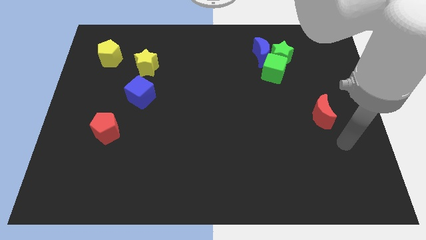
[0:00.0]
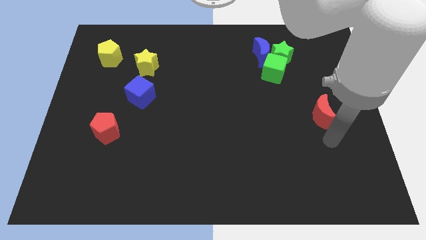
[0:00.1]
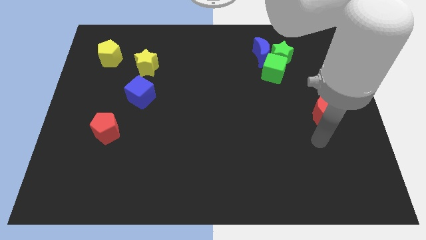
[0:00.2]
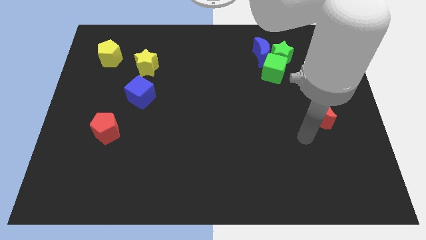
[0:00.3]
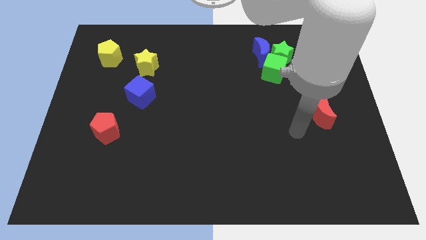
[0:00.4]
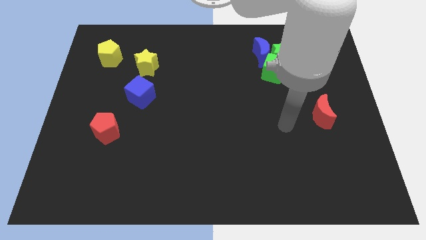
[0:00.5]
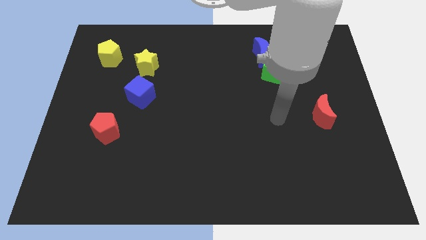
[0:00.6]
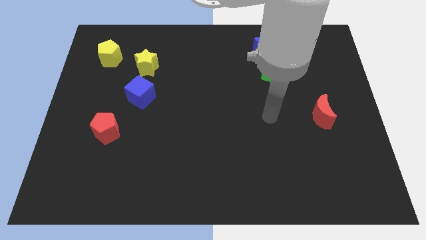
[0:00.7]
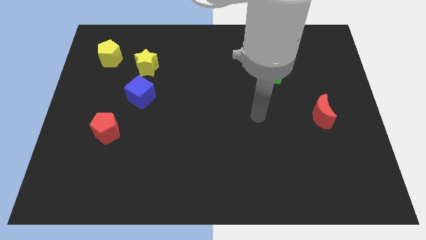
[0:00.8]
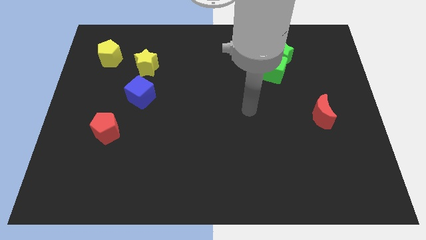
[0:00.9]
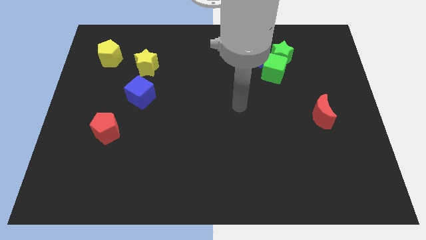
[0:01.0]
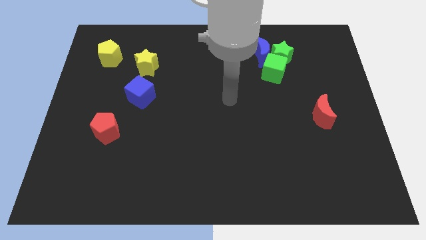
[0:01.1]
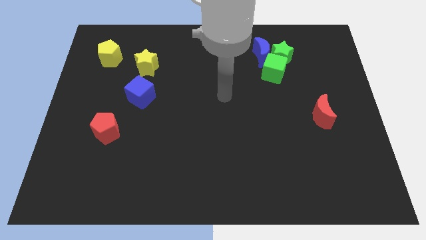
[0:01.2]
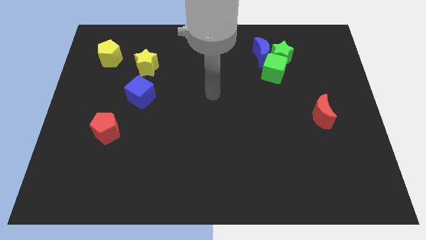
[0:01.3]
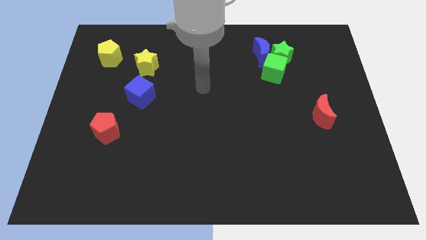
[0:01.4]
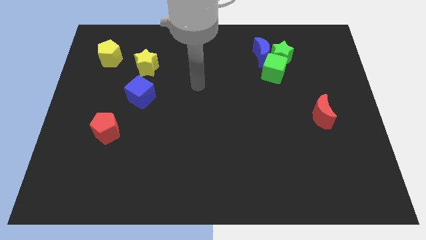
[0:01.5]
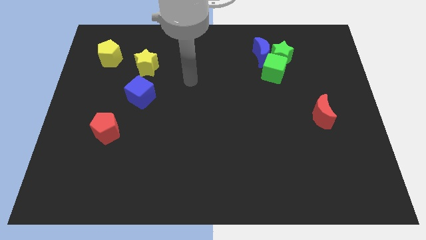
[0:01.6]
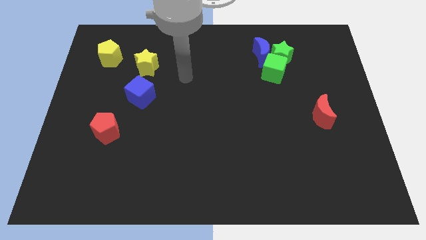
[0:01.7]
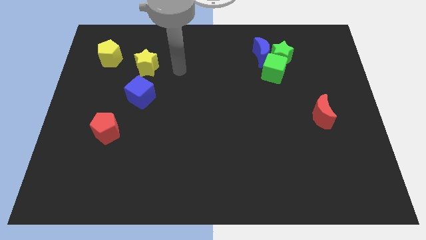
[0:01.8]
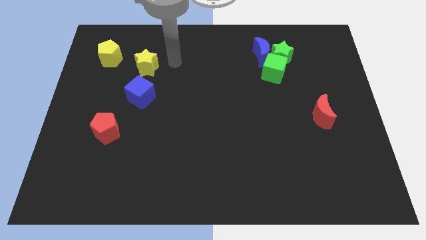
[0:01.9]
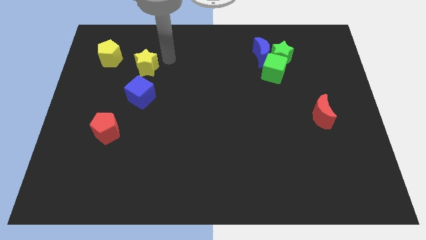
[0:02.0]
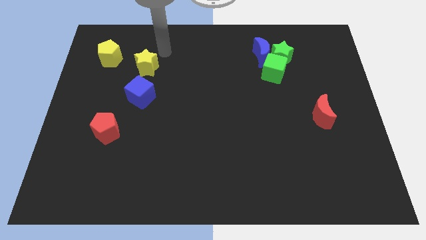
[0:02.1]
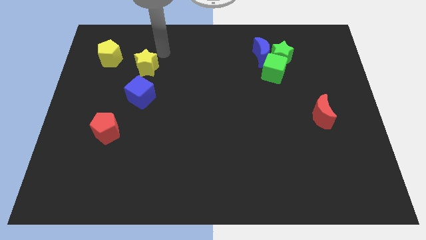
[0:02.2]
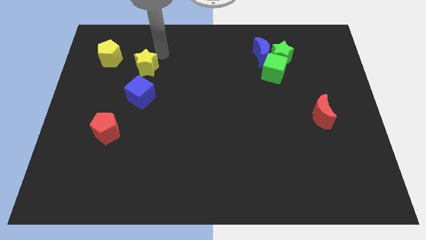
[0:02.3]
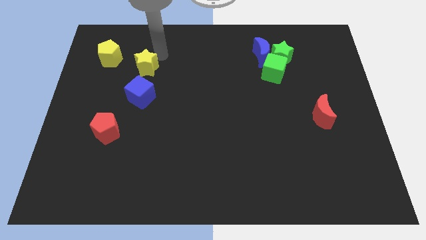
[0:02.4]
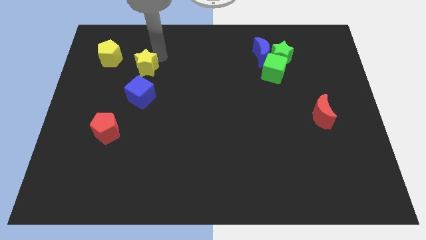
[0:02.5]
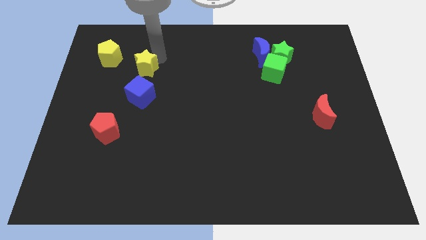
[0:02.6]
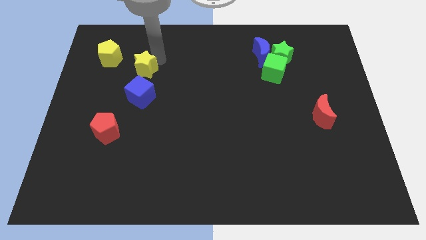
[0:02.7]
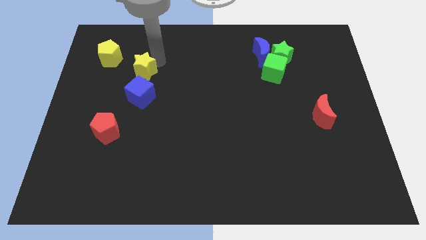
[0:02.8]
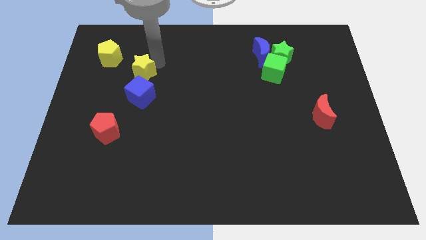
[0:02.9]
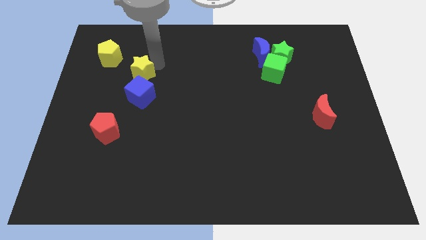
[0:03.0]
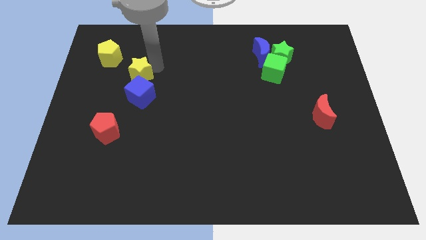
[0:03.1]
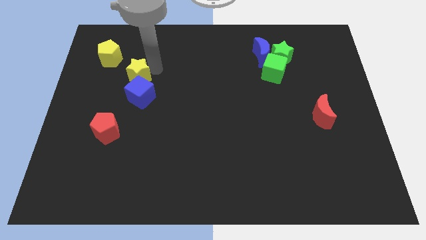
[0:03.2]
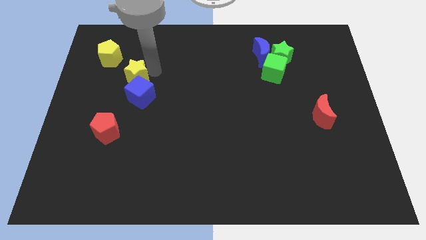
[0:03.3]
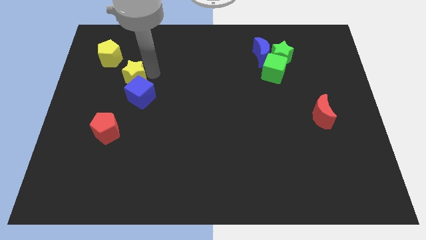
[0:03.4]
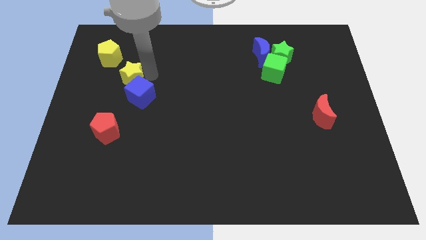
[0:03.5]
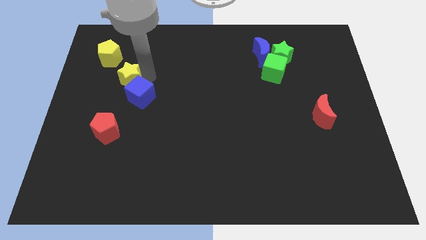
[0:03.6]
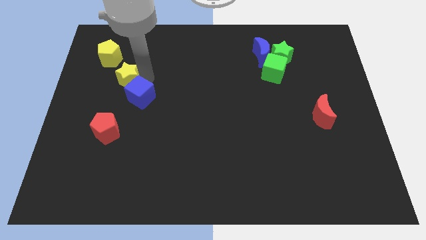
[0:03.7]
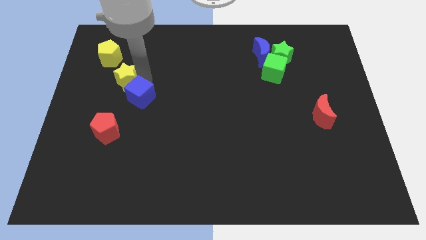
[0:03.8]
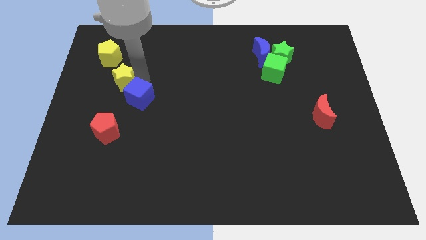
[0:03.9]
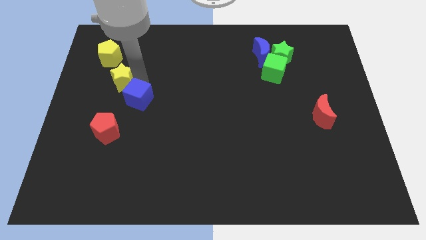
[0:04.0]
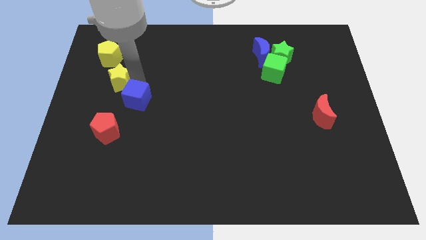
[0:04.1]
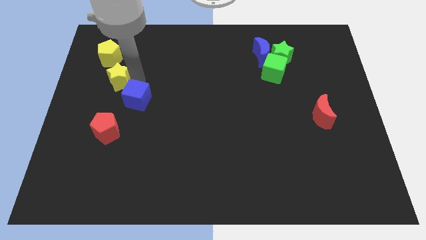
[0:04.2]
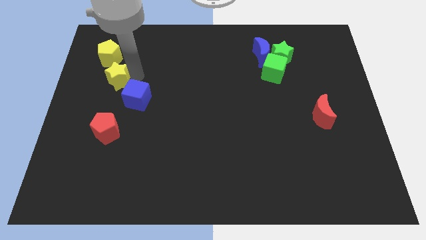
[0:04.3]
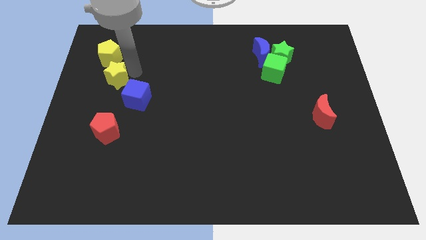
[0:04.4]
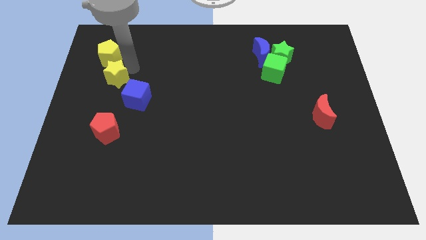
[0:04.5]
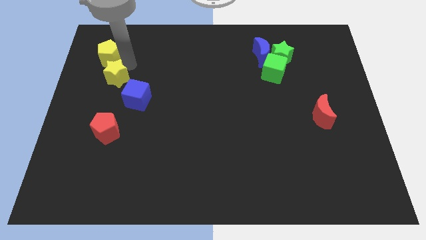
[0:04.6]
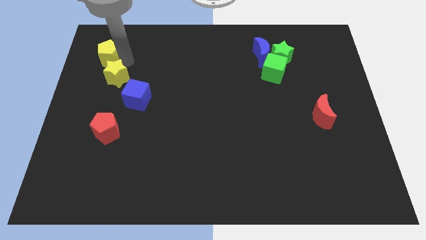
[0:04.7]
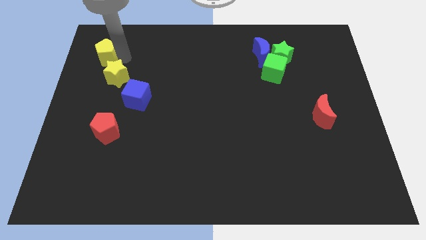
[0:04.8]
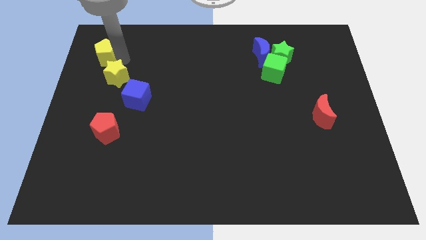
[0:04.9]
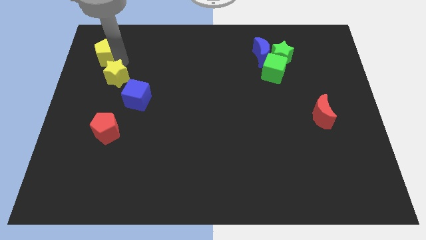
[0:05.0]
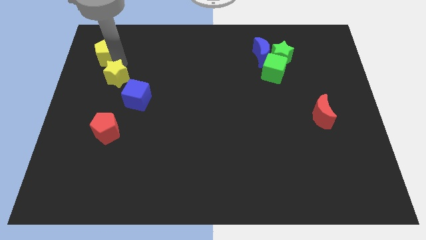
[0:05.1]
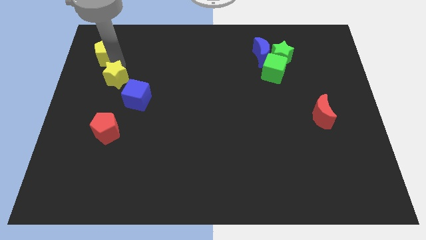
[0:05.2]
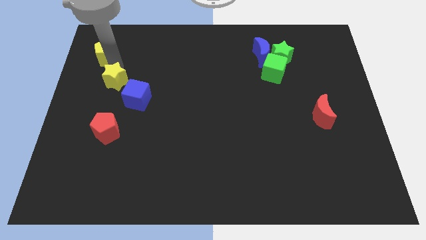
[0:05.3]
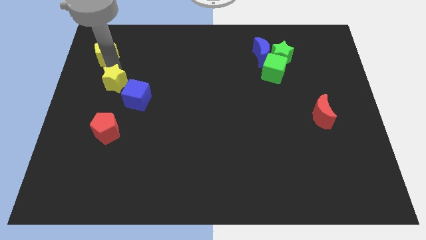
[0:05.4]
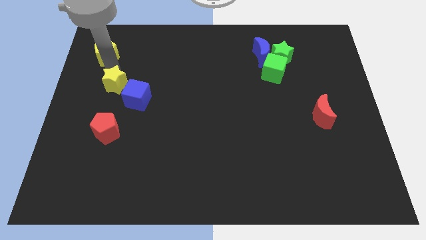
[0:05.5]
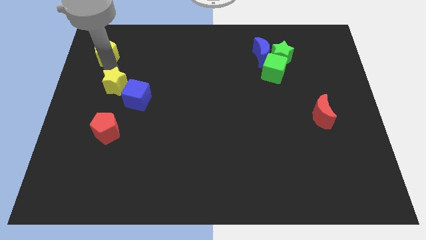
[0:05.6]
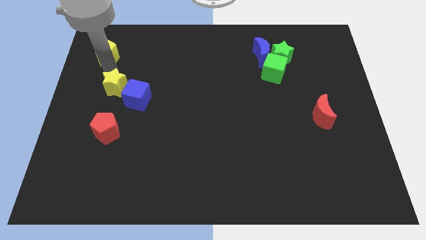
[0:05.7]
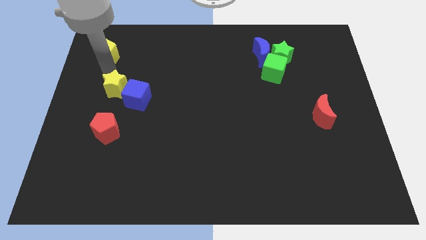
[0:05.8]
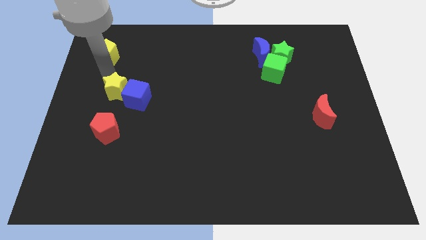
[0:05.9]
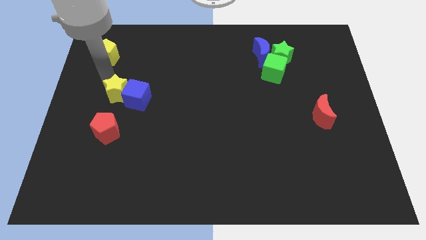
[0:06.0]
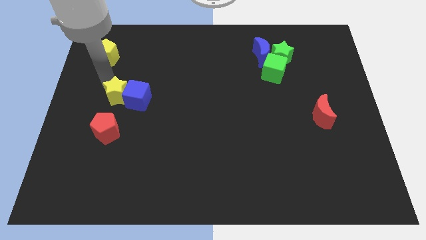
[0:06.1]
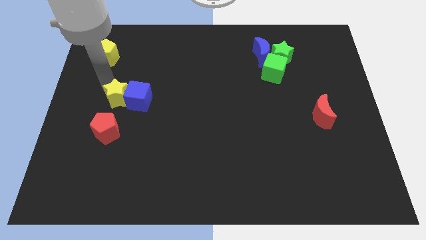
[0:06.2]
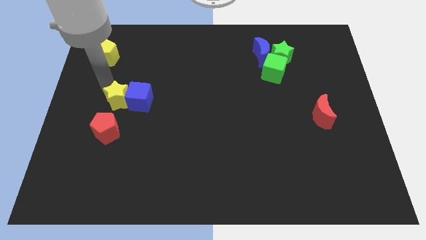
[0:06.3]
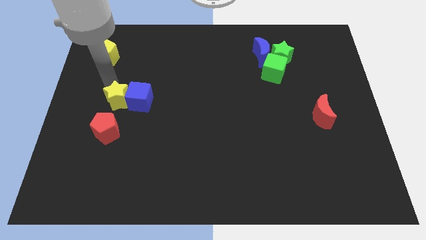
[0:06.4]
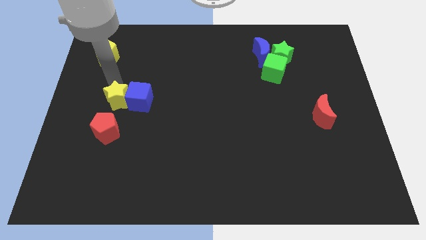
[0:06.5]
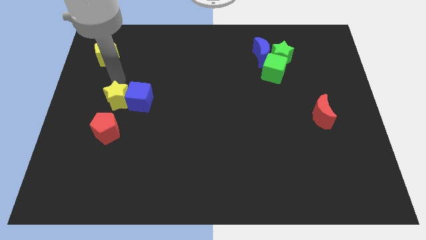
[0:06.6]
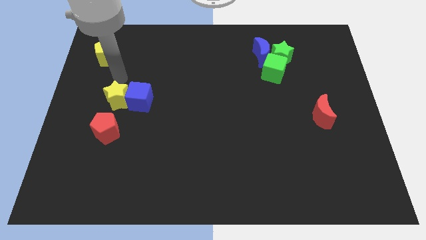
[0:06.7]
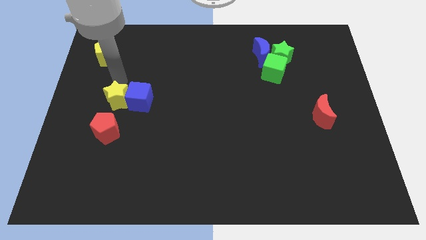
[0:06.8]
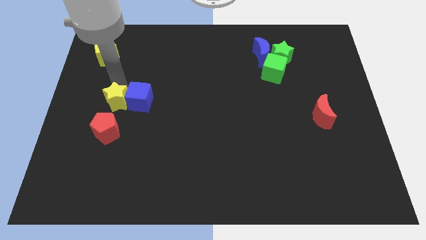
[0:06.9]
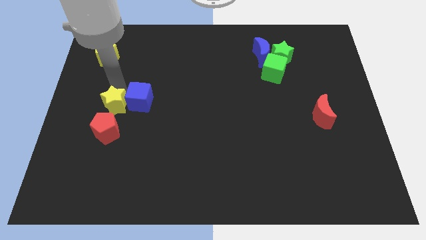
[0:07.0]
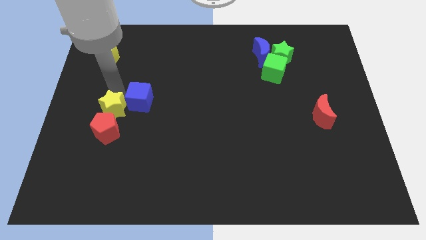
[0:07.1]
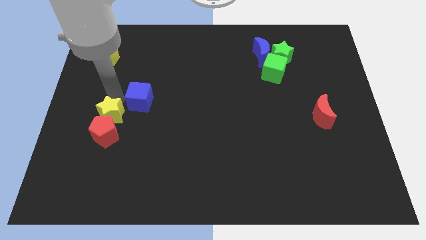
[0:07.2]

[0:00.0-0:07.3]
put the yellow star to the red pentagon
